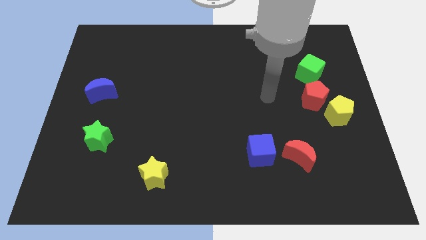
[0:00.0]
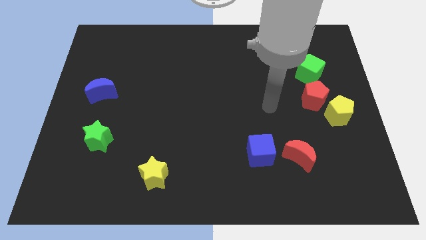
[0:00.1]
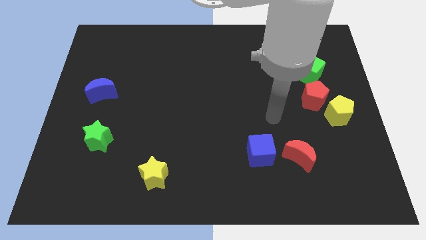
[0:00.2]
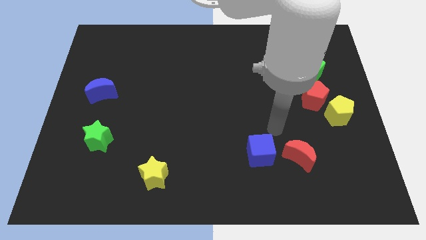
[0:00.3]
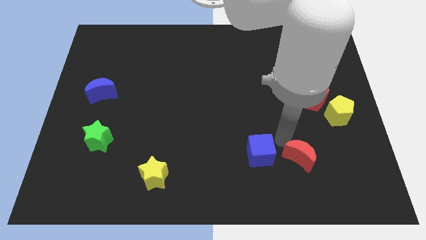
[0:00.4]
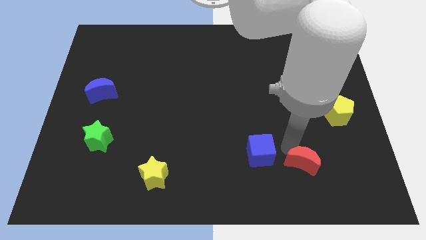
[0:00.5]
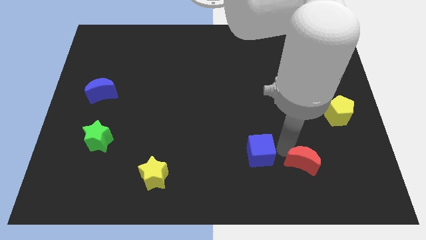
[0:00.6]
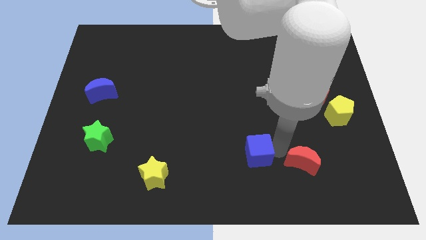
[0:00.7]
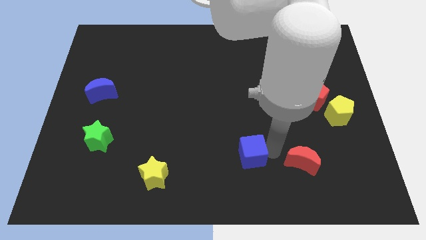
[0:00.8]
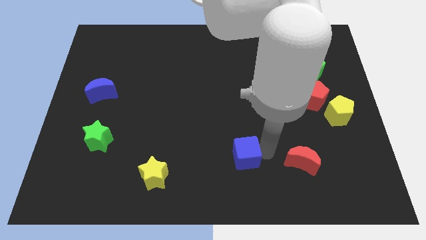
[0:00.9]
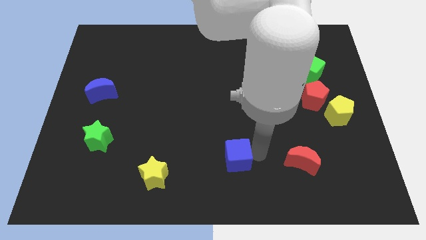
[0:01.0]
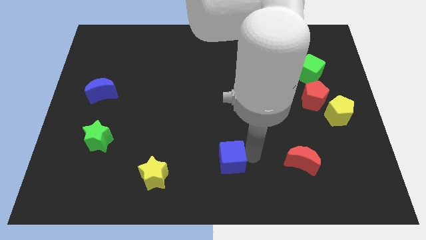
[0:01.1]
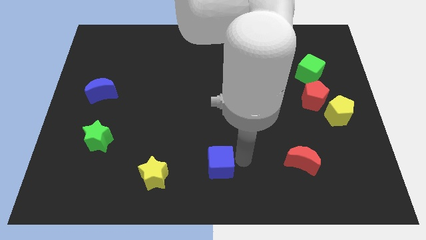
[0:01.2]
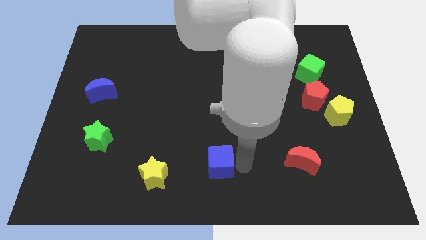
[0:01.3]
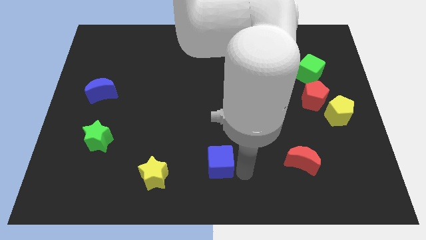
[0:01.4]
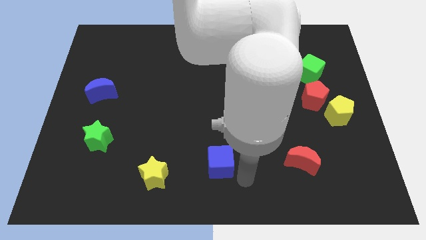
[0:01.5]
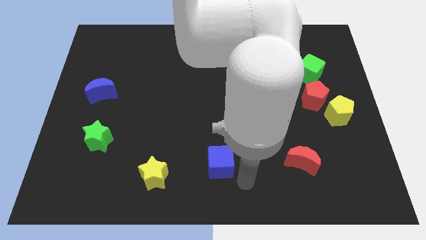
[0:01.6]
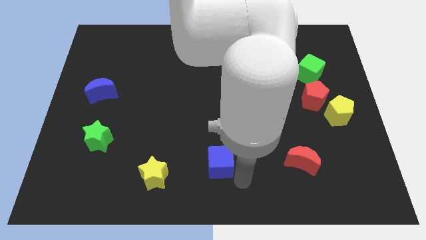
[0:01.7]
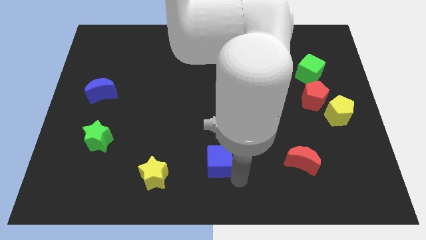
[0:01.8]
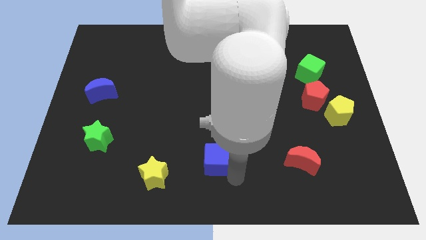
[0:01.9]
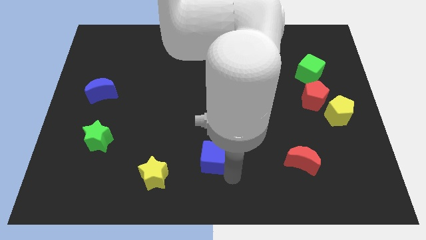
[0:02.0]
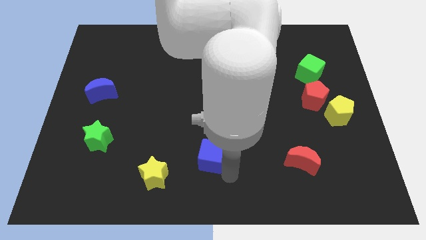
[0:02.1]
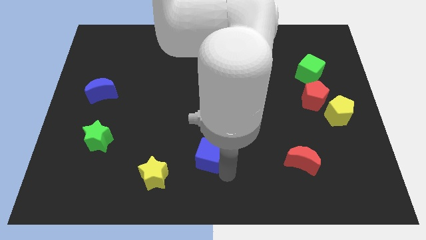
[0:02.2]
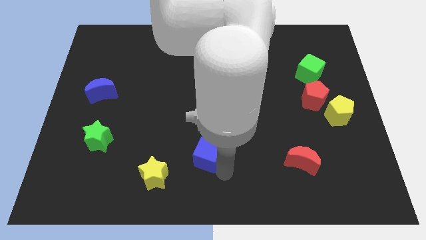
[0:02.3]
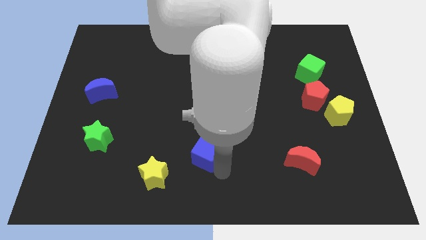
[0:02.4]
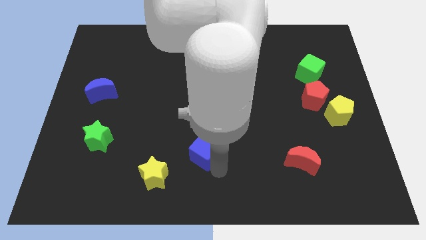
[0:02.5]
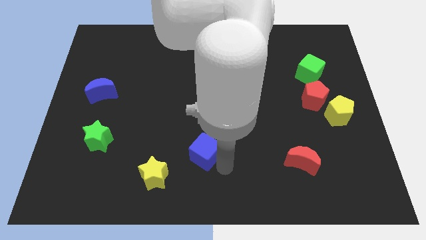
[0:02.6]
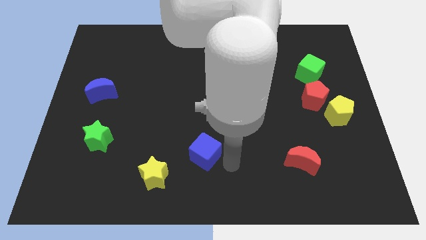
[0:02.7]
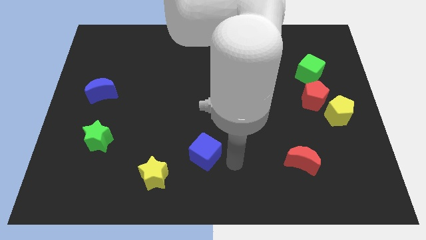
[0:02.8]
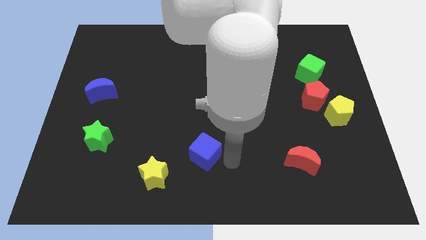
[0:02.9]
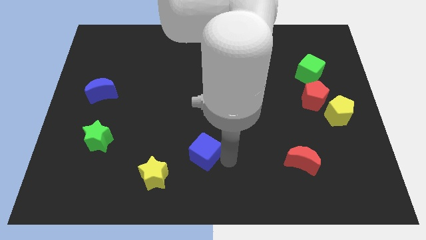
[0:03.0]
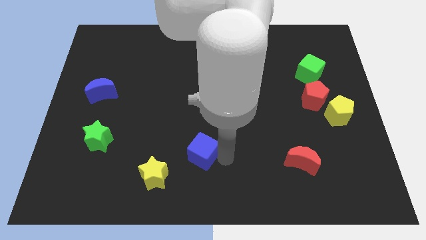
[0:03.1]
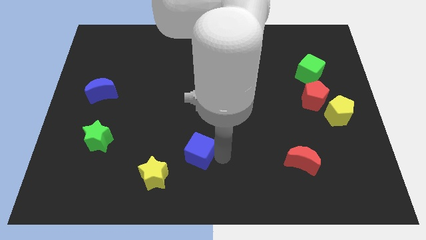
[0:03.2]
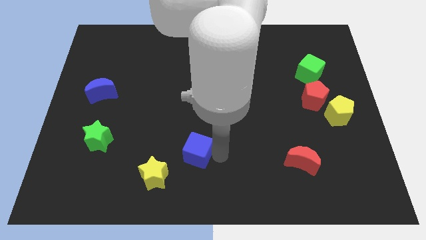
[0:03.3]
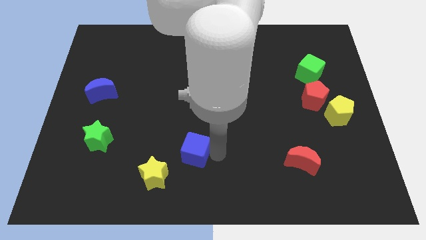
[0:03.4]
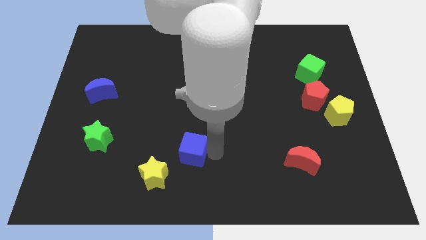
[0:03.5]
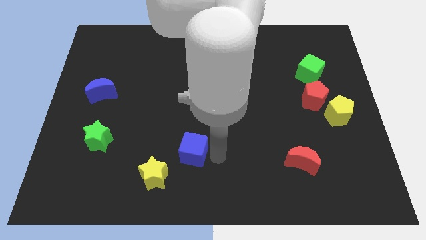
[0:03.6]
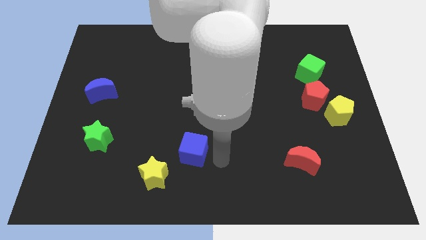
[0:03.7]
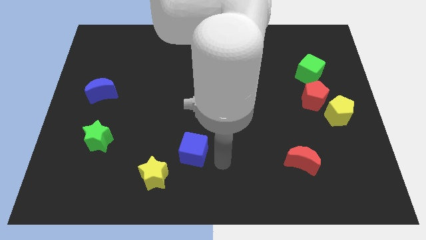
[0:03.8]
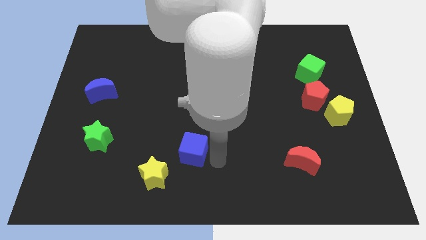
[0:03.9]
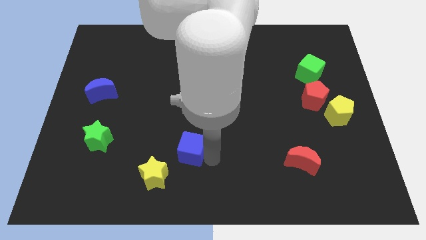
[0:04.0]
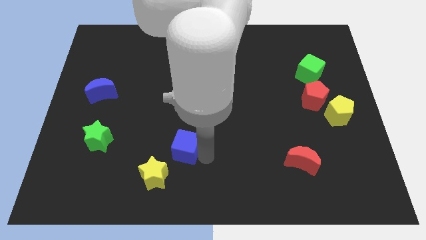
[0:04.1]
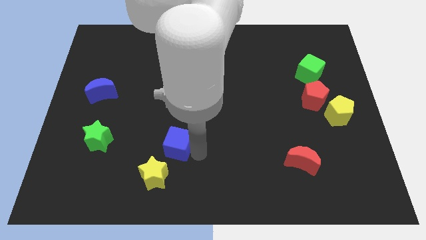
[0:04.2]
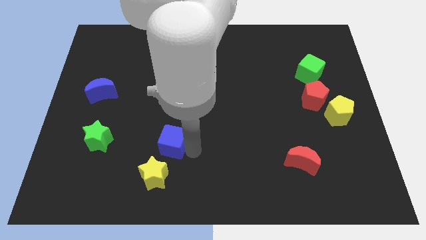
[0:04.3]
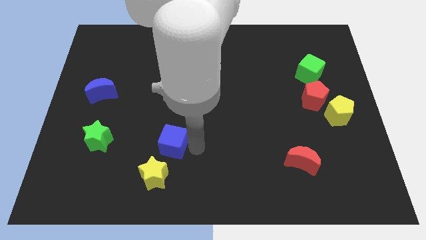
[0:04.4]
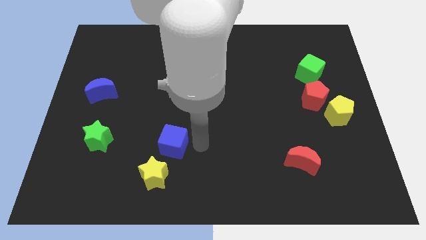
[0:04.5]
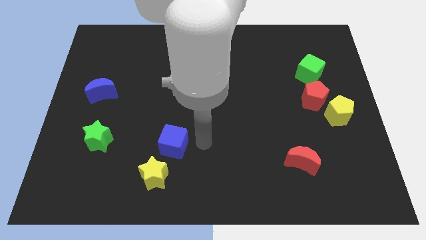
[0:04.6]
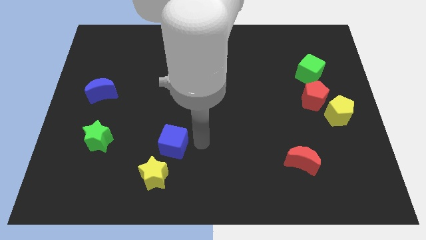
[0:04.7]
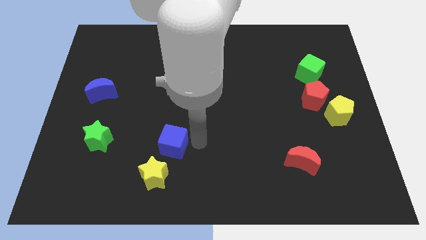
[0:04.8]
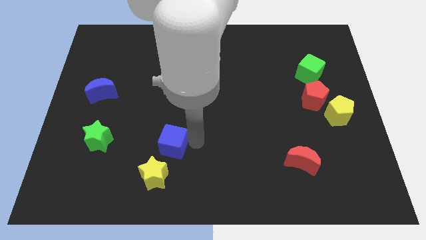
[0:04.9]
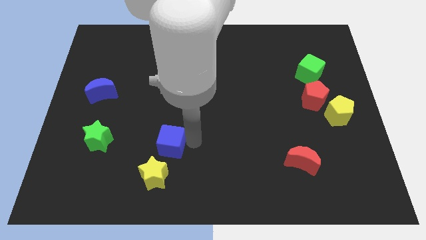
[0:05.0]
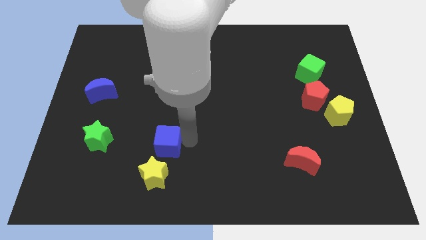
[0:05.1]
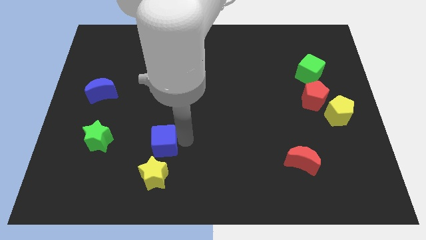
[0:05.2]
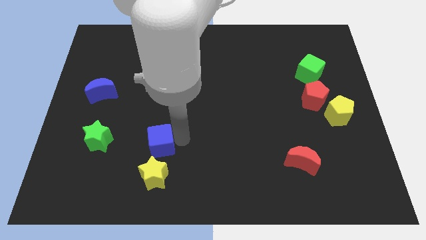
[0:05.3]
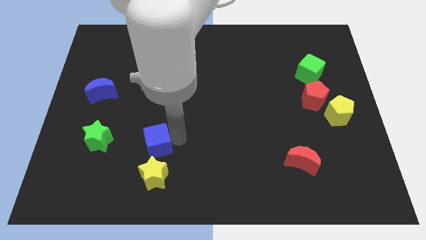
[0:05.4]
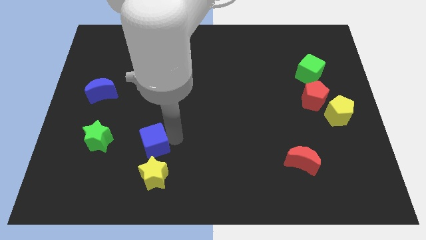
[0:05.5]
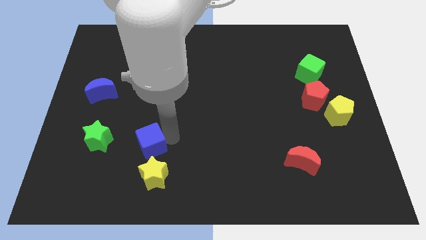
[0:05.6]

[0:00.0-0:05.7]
move the blue cube to the top left of the yellow star

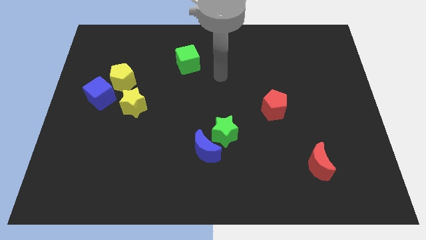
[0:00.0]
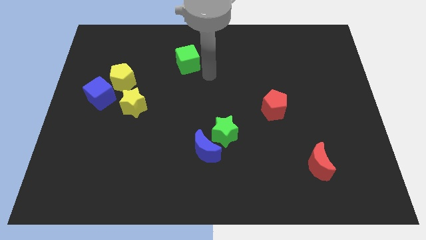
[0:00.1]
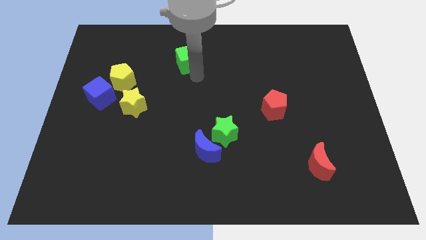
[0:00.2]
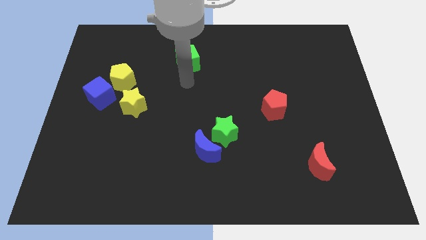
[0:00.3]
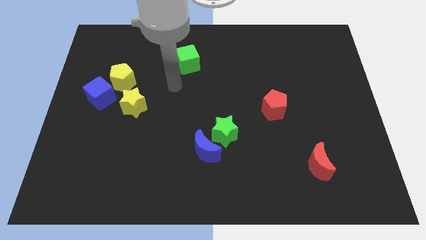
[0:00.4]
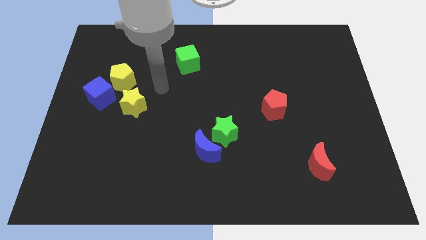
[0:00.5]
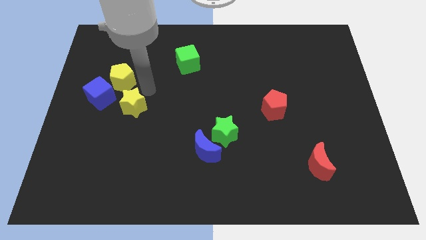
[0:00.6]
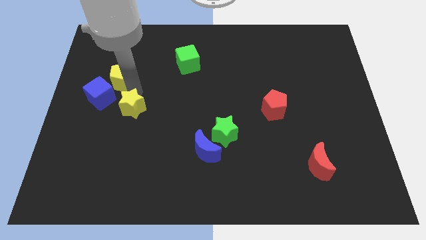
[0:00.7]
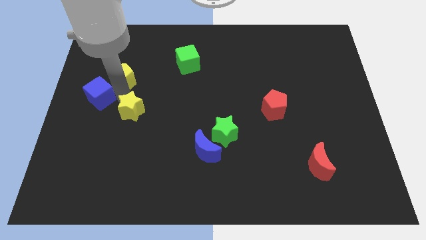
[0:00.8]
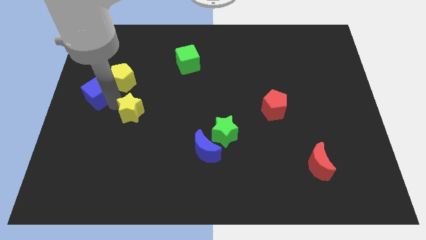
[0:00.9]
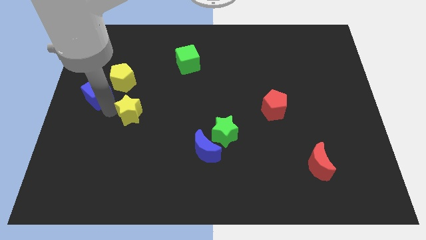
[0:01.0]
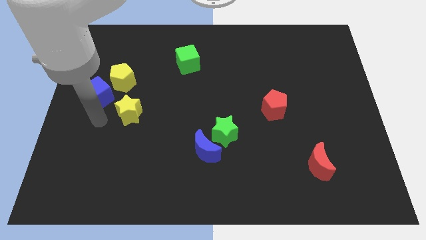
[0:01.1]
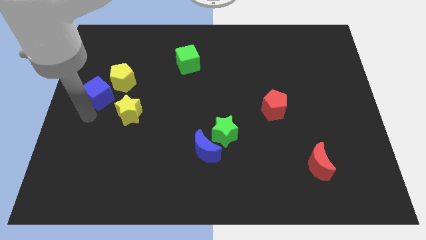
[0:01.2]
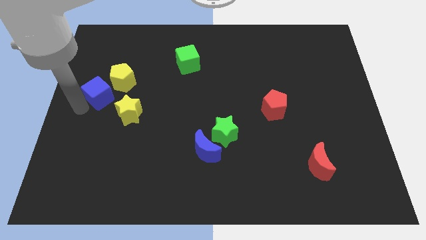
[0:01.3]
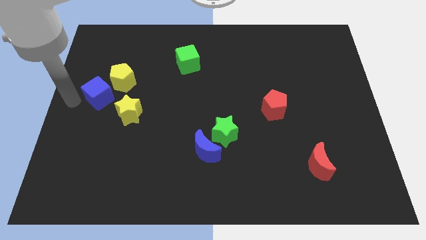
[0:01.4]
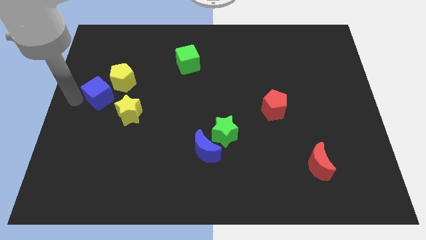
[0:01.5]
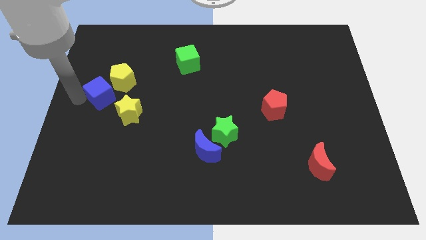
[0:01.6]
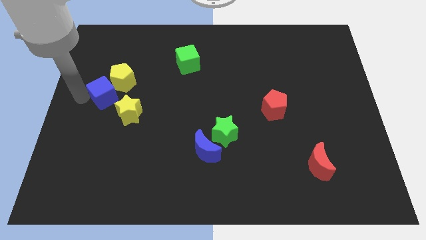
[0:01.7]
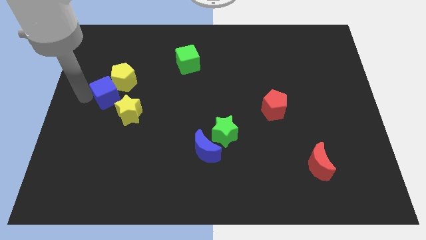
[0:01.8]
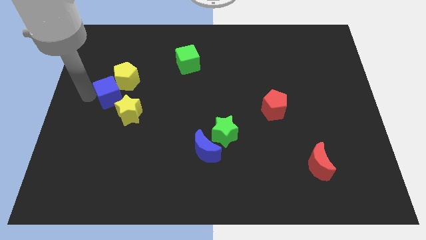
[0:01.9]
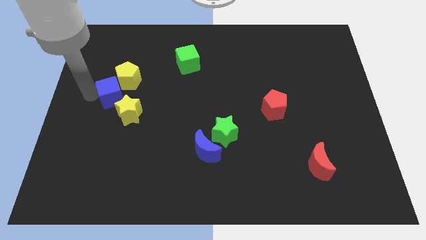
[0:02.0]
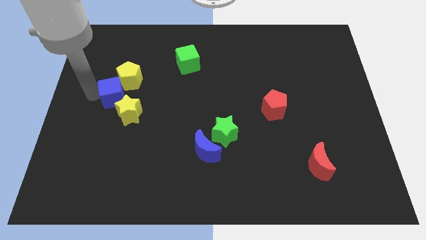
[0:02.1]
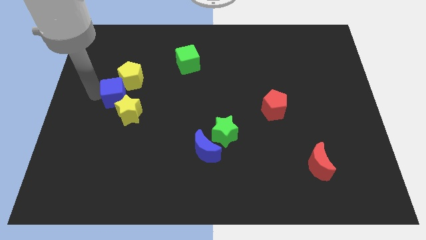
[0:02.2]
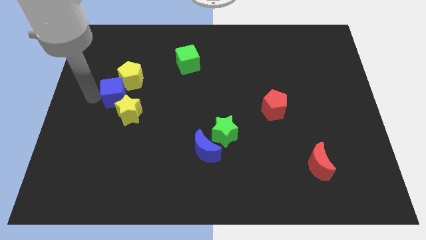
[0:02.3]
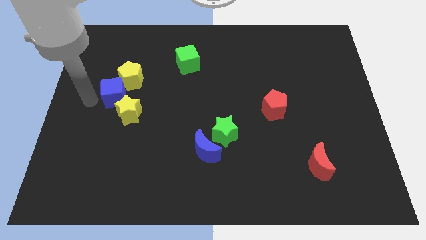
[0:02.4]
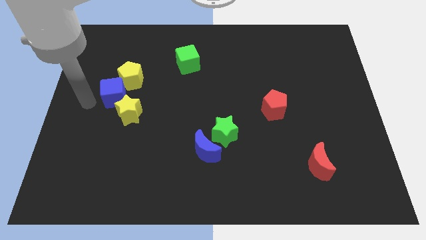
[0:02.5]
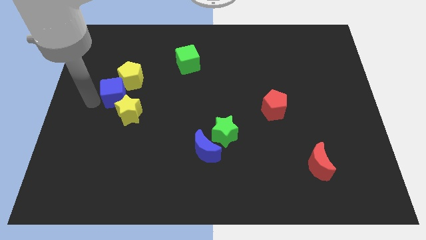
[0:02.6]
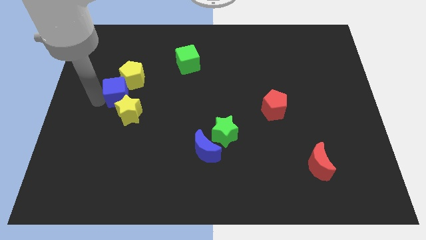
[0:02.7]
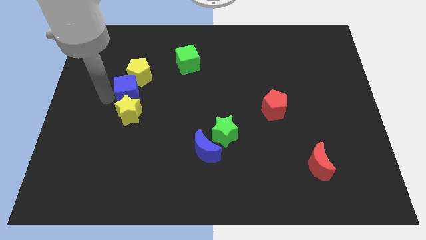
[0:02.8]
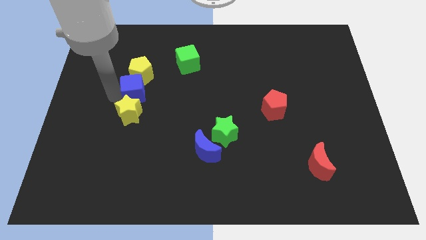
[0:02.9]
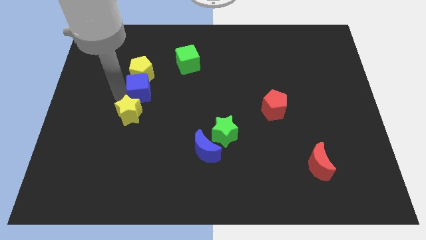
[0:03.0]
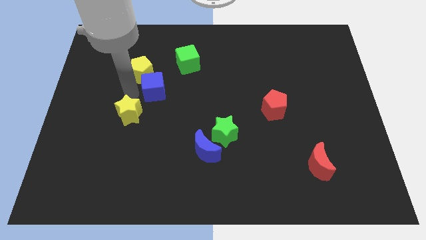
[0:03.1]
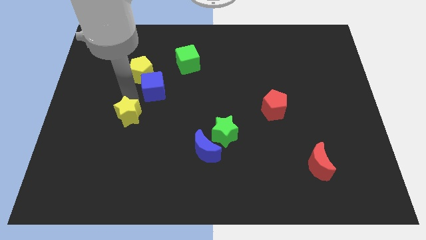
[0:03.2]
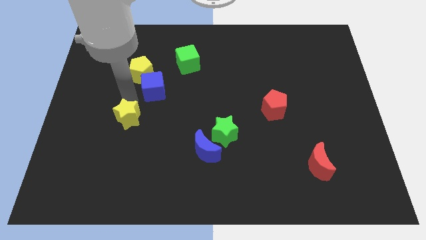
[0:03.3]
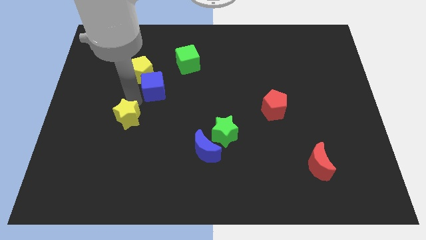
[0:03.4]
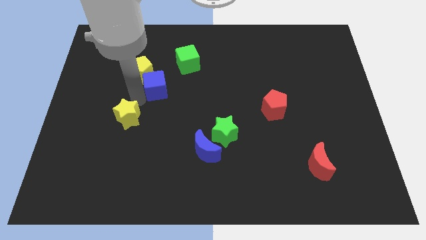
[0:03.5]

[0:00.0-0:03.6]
put the blue cube just right of the yellow pentagon
